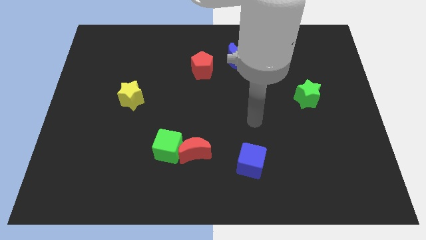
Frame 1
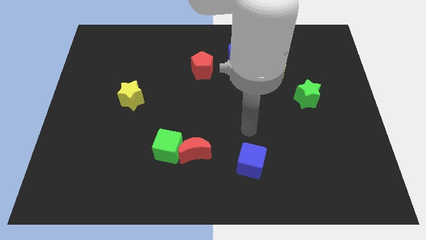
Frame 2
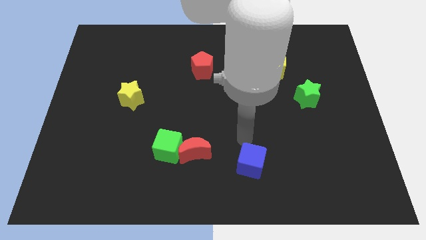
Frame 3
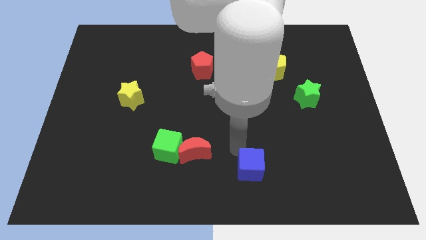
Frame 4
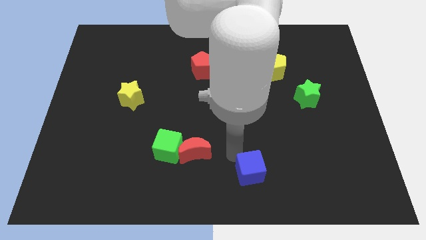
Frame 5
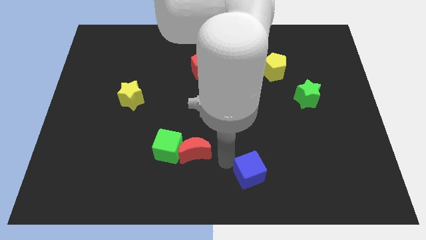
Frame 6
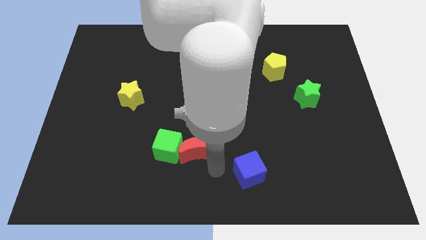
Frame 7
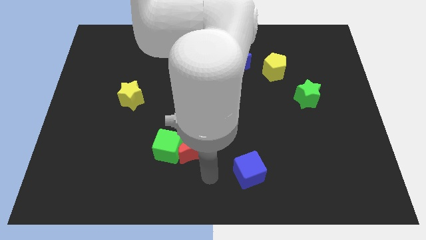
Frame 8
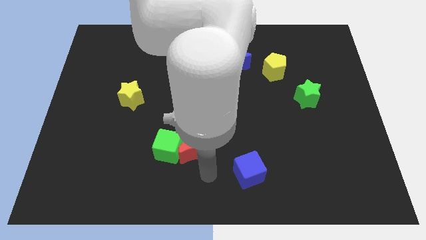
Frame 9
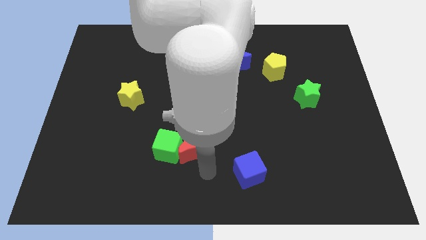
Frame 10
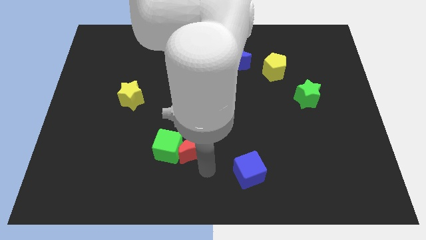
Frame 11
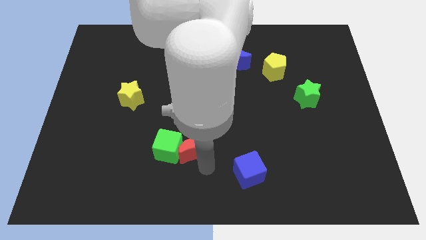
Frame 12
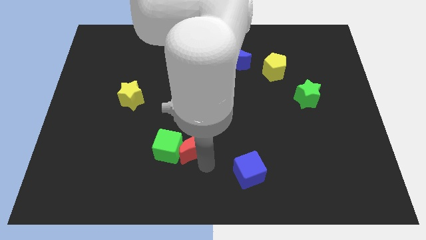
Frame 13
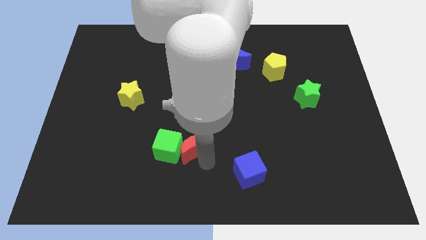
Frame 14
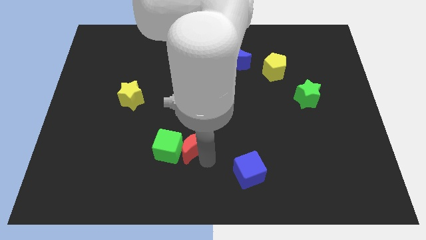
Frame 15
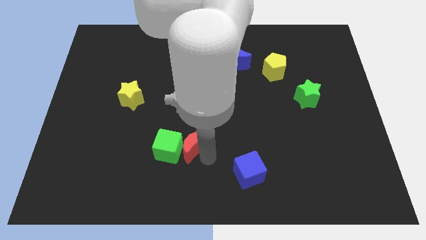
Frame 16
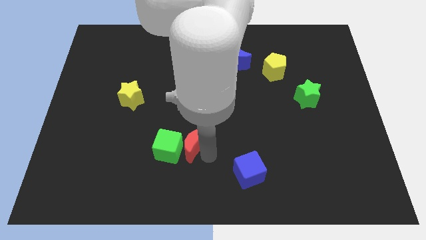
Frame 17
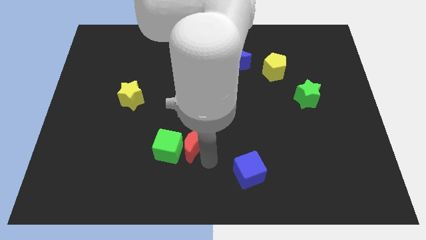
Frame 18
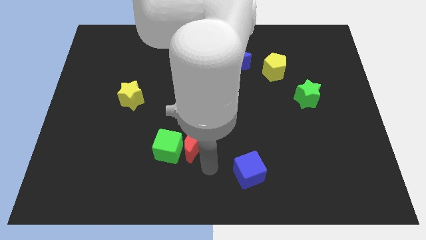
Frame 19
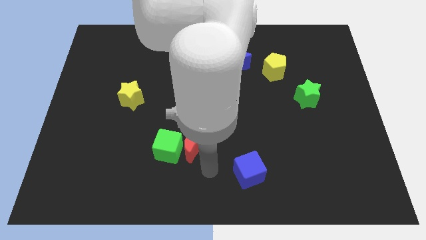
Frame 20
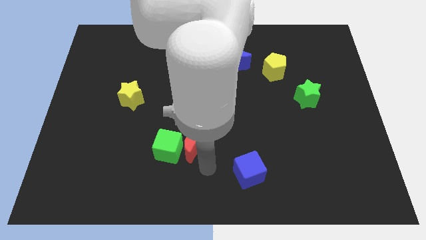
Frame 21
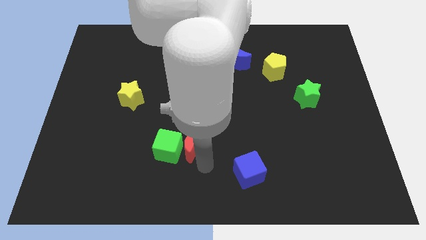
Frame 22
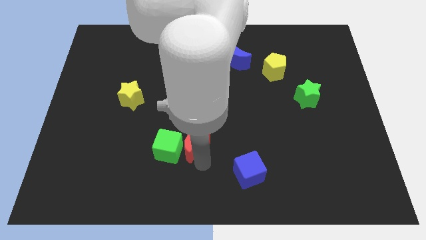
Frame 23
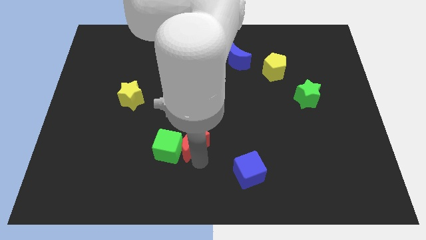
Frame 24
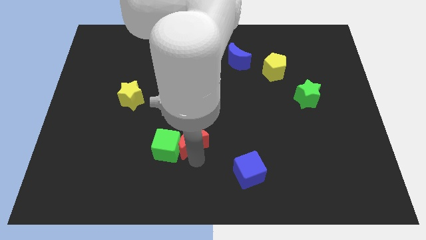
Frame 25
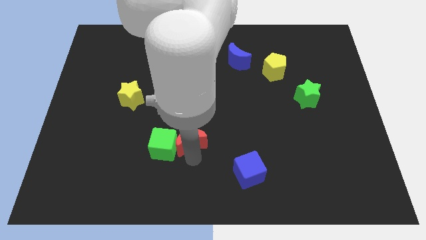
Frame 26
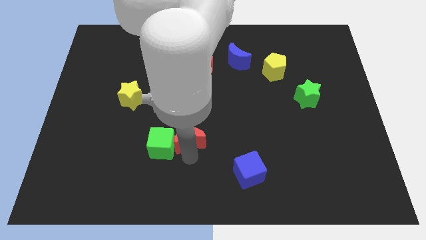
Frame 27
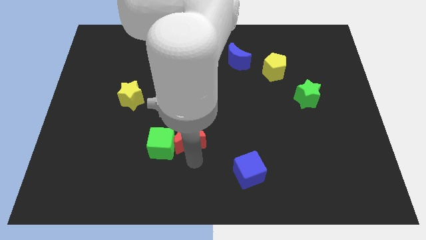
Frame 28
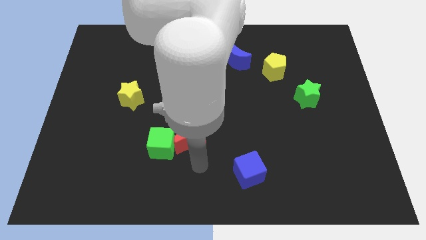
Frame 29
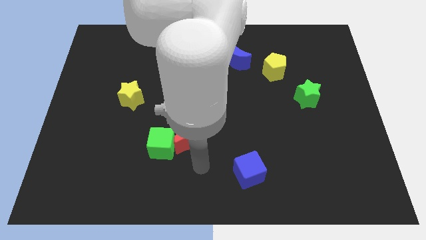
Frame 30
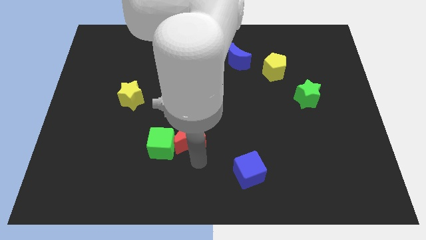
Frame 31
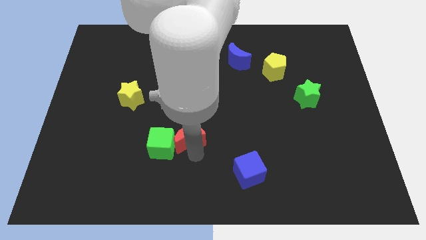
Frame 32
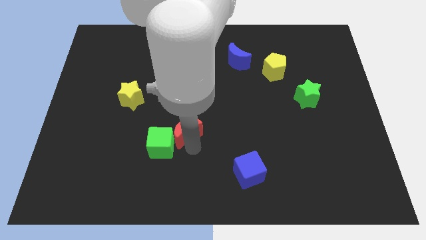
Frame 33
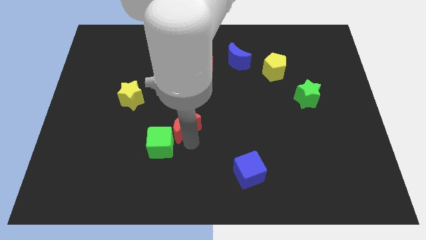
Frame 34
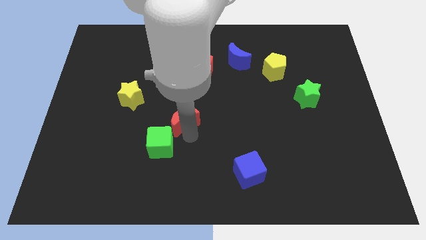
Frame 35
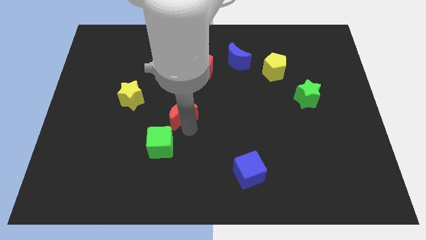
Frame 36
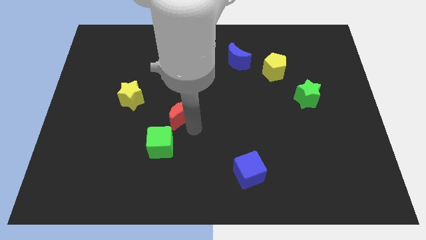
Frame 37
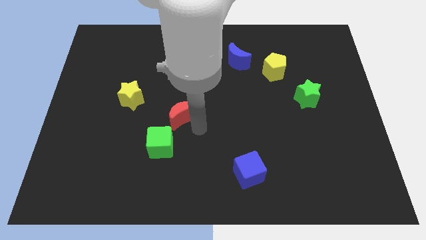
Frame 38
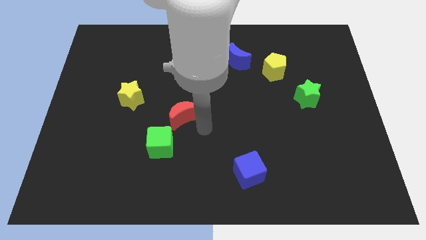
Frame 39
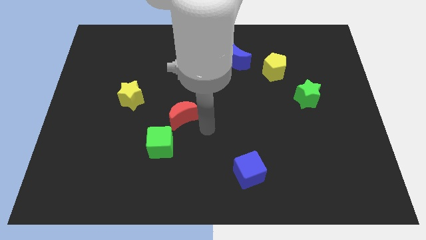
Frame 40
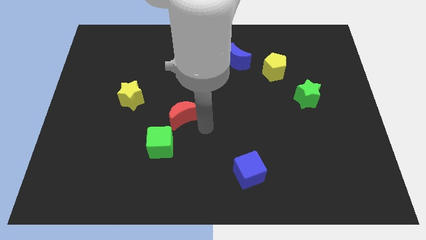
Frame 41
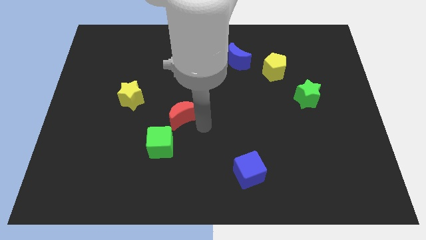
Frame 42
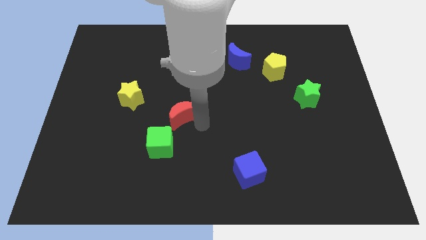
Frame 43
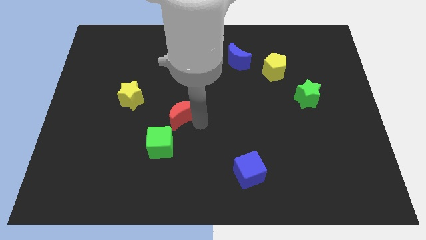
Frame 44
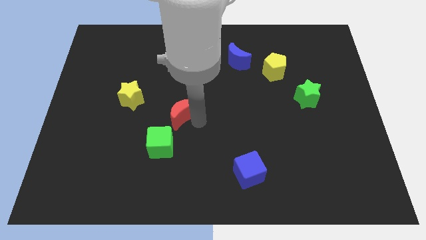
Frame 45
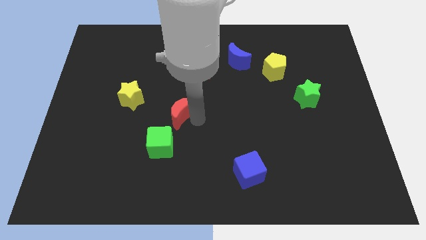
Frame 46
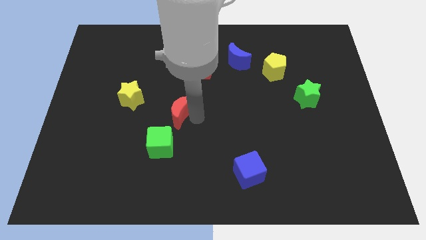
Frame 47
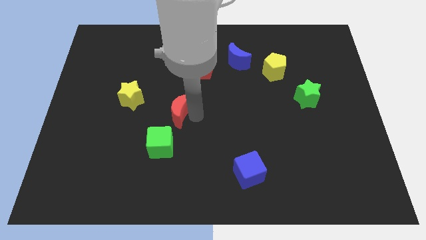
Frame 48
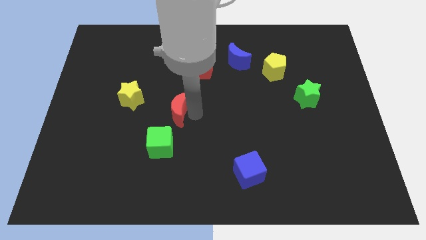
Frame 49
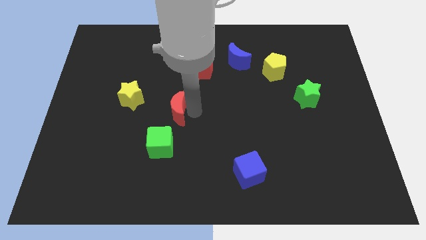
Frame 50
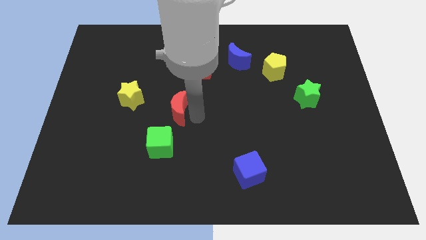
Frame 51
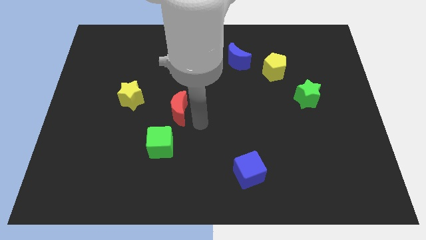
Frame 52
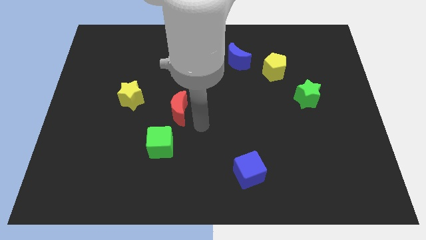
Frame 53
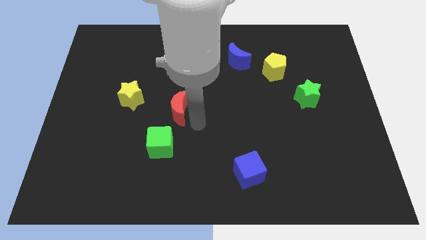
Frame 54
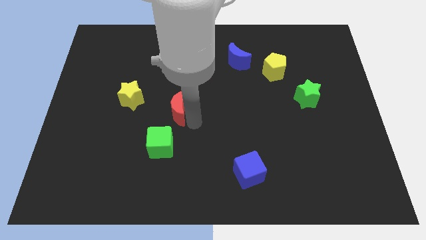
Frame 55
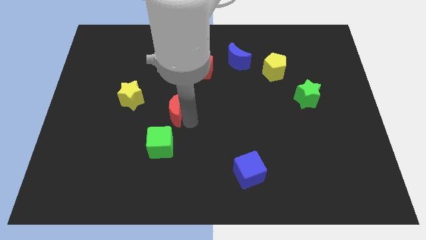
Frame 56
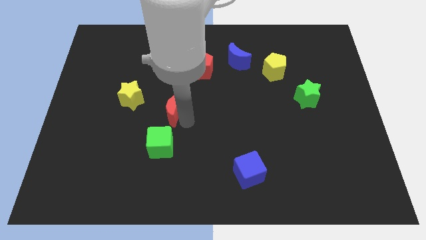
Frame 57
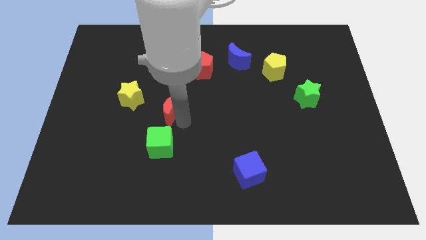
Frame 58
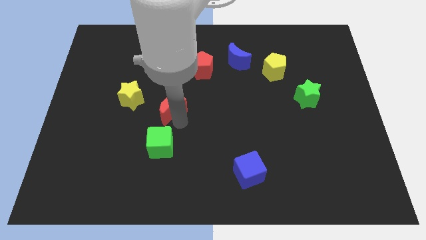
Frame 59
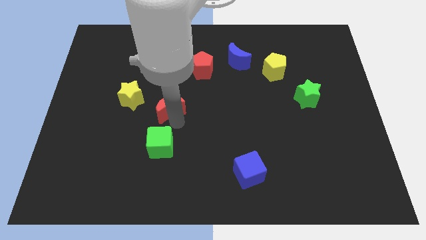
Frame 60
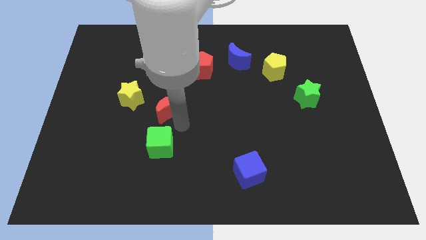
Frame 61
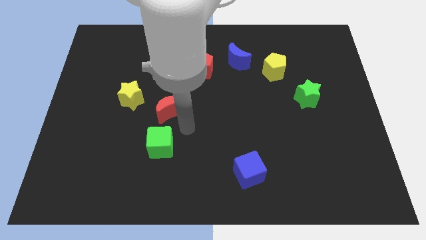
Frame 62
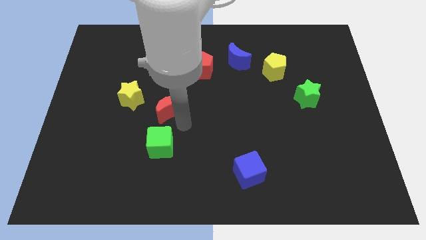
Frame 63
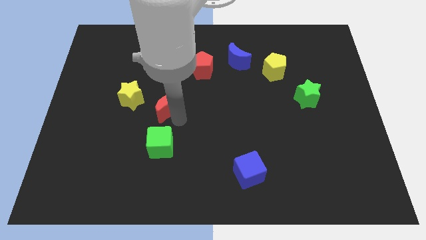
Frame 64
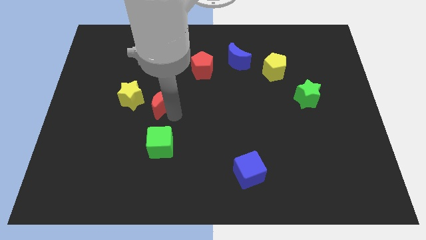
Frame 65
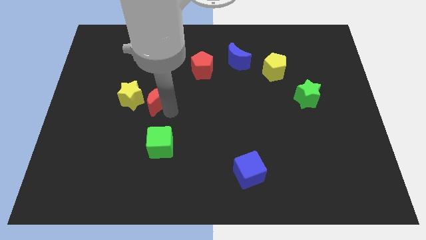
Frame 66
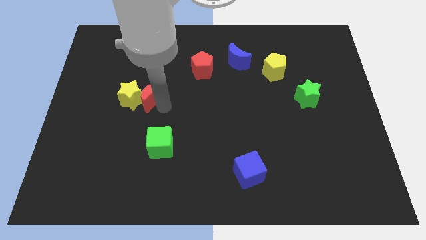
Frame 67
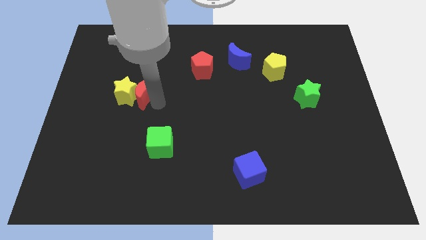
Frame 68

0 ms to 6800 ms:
slide the red moon up and to the left diagonally

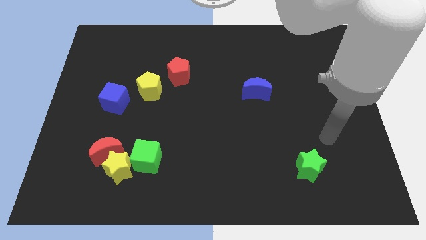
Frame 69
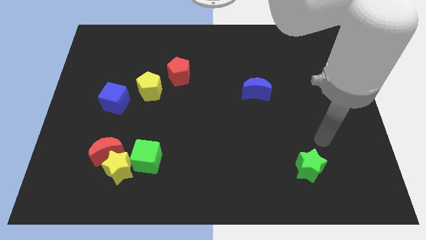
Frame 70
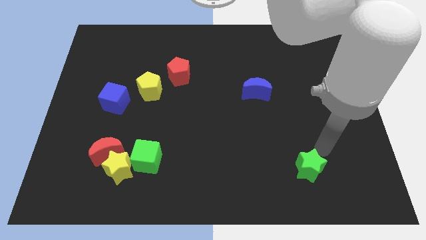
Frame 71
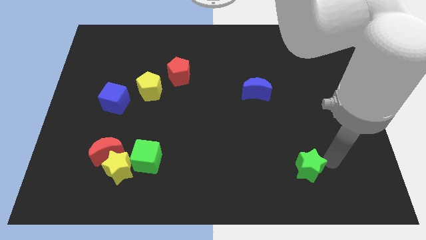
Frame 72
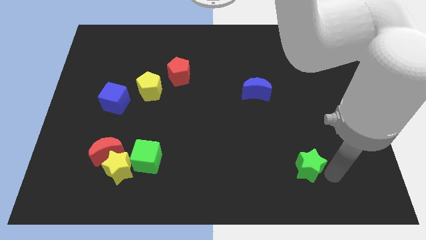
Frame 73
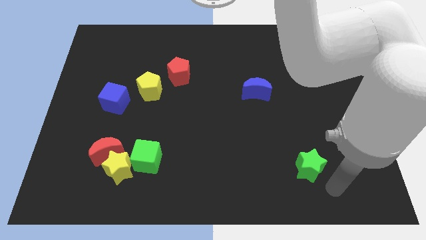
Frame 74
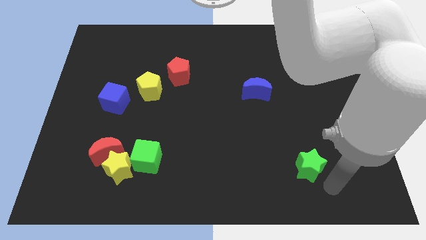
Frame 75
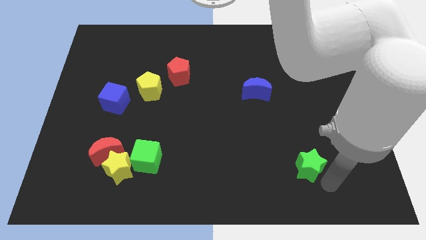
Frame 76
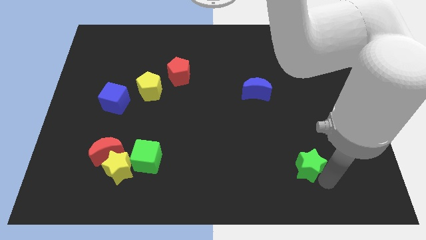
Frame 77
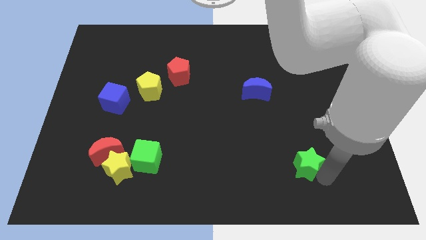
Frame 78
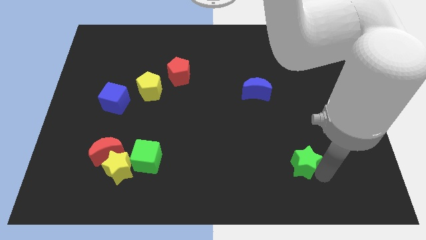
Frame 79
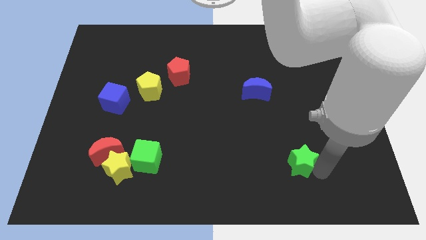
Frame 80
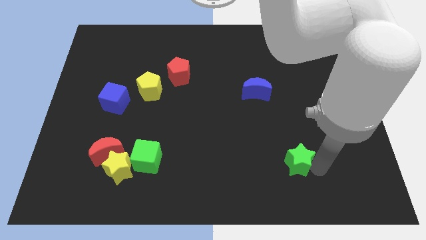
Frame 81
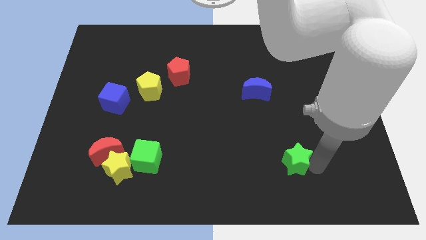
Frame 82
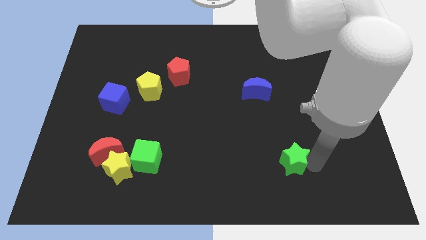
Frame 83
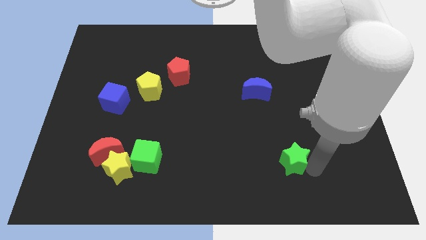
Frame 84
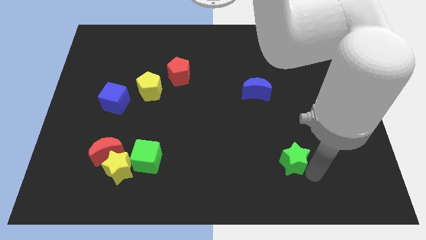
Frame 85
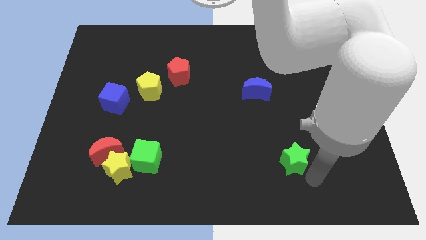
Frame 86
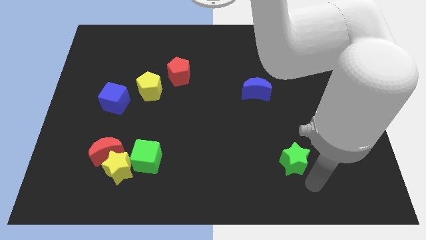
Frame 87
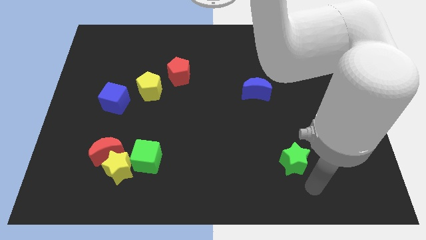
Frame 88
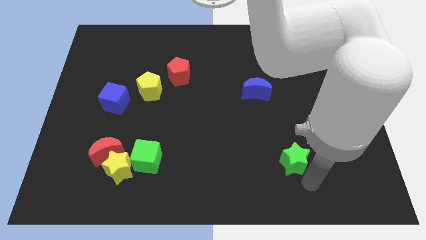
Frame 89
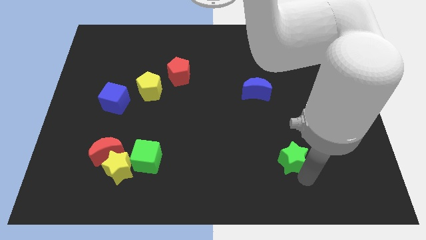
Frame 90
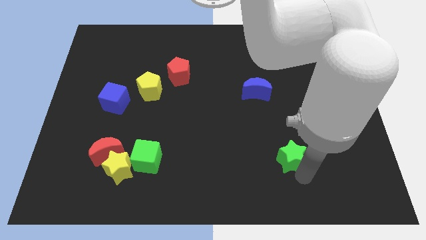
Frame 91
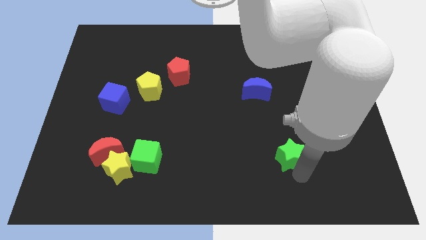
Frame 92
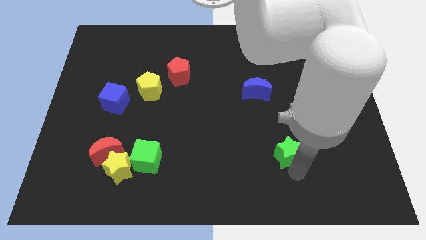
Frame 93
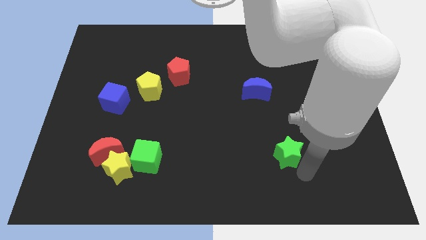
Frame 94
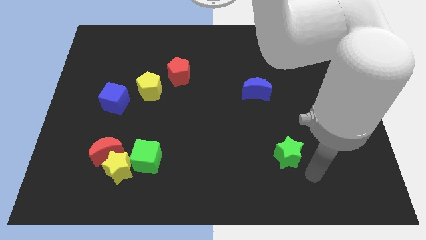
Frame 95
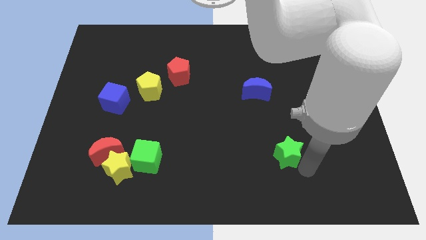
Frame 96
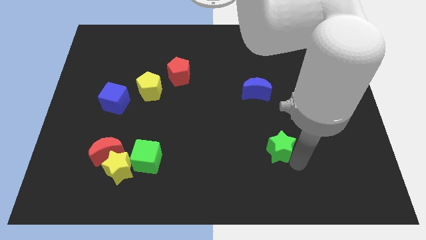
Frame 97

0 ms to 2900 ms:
slide the green star a bit upwards and then left
